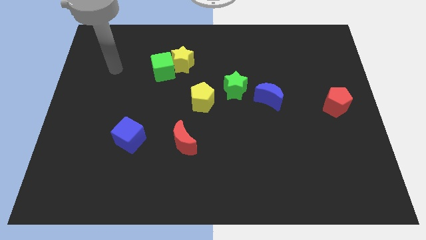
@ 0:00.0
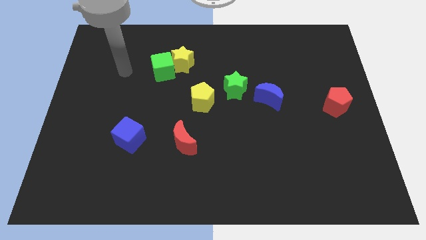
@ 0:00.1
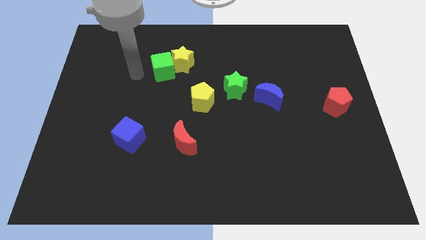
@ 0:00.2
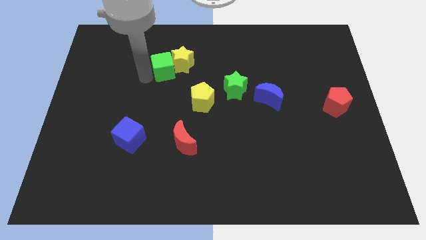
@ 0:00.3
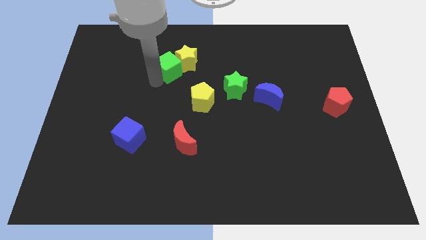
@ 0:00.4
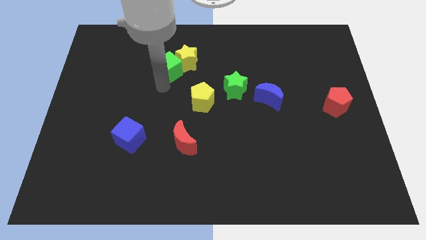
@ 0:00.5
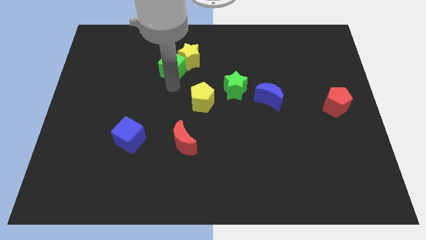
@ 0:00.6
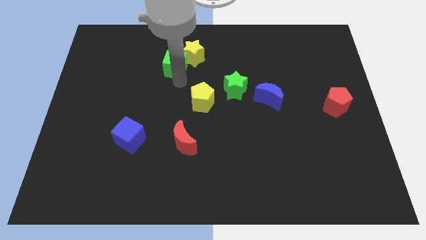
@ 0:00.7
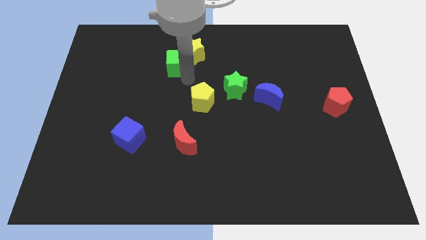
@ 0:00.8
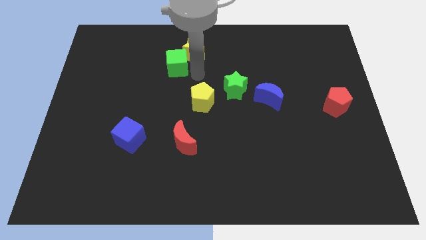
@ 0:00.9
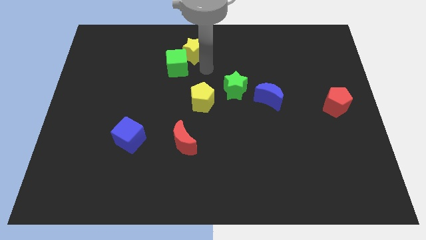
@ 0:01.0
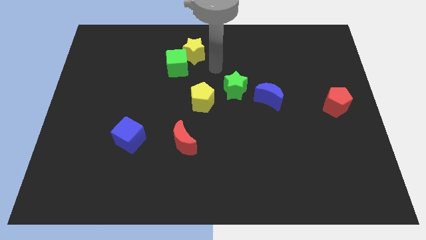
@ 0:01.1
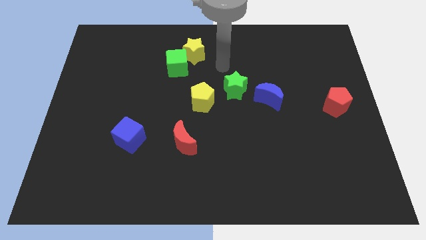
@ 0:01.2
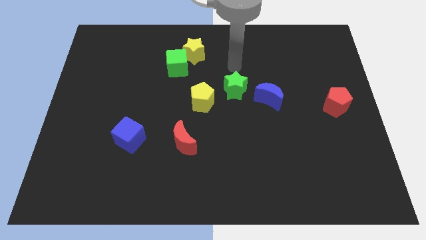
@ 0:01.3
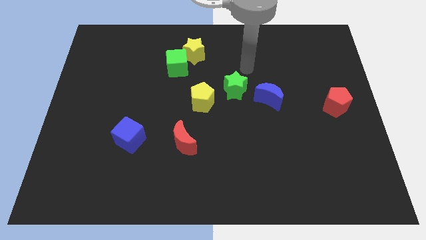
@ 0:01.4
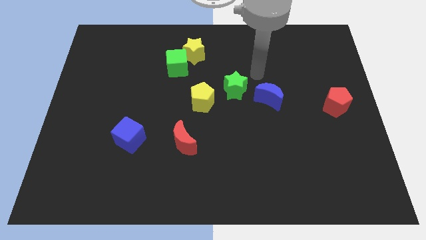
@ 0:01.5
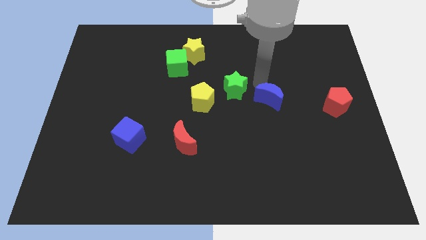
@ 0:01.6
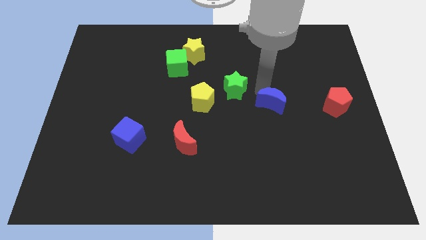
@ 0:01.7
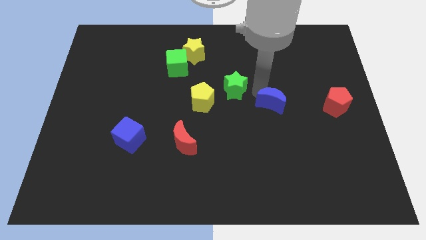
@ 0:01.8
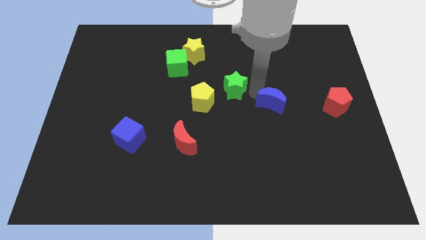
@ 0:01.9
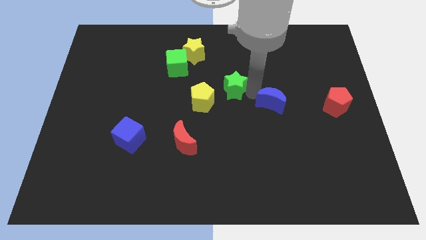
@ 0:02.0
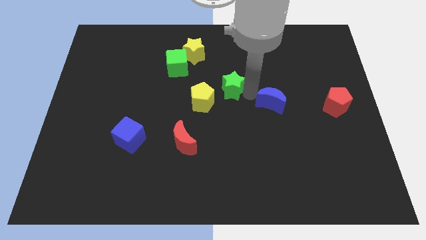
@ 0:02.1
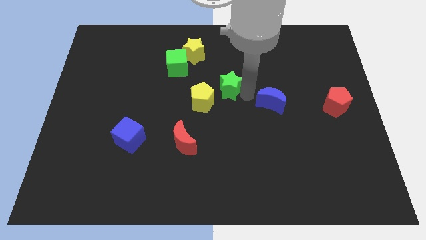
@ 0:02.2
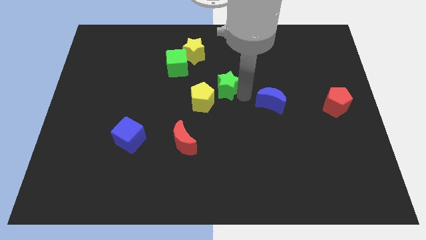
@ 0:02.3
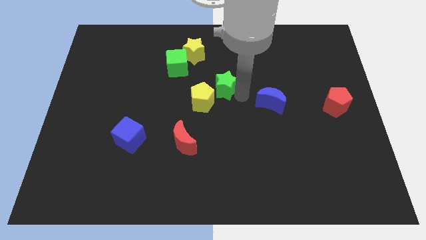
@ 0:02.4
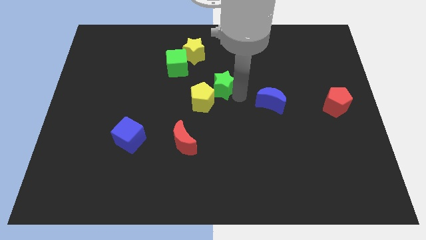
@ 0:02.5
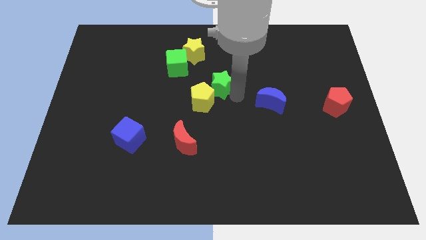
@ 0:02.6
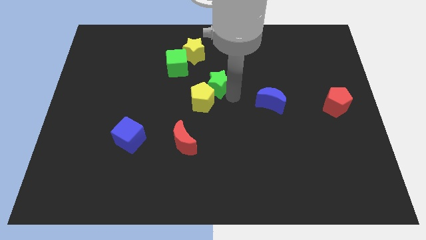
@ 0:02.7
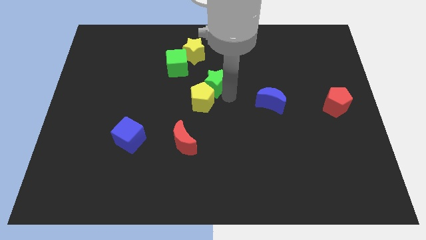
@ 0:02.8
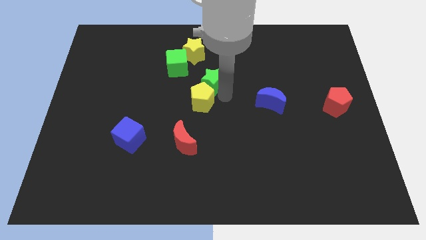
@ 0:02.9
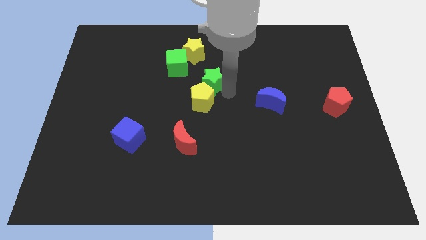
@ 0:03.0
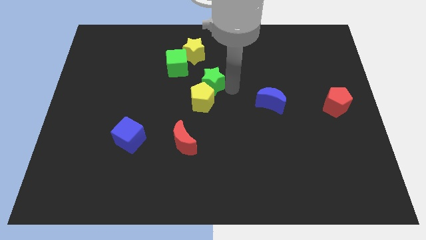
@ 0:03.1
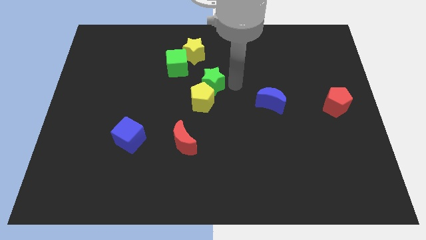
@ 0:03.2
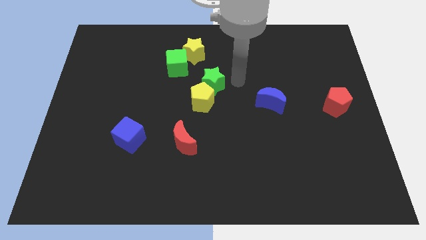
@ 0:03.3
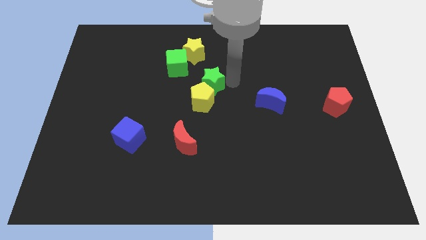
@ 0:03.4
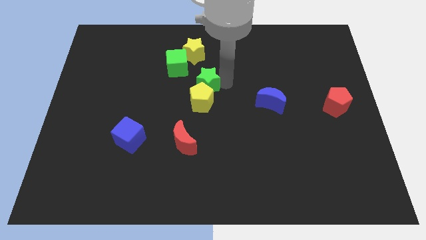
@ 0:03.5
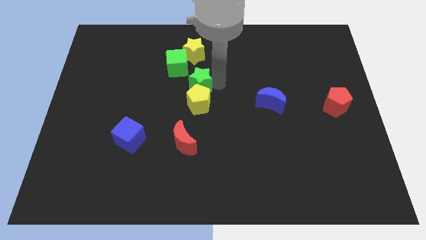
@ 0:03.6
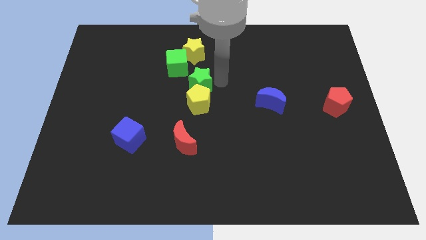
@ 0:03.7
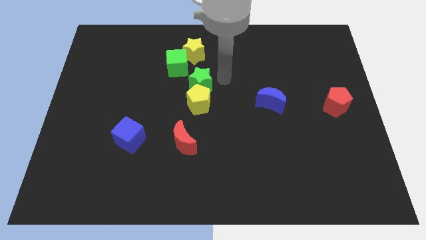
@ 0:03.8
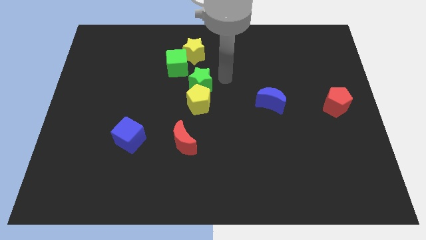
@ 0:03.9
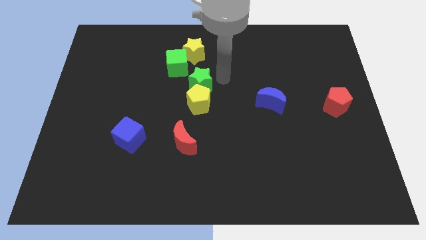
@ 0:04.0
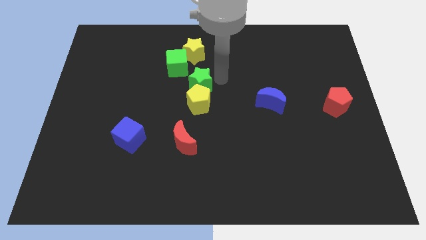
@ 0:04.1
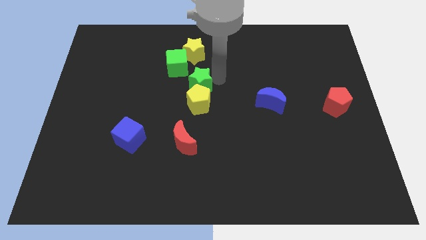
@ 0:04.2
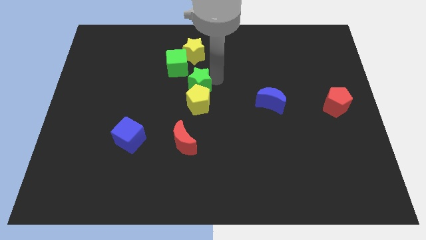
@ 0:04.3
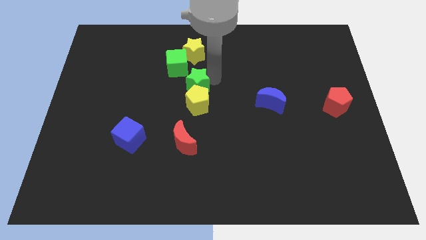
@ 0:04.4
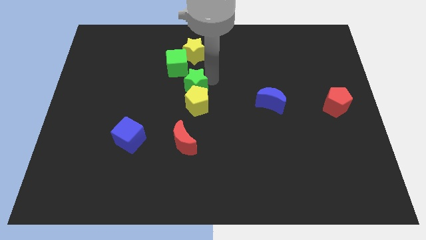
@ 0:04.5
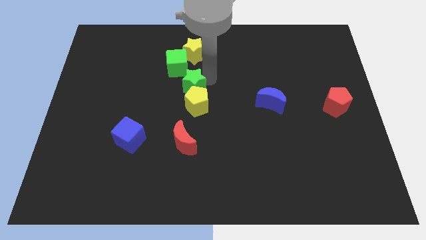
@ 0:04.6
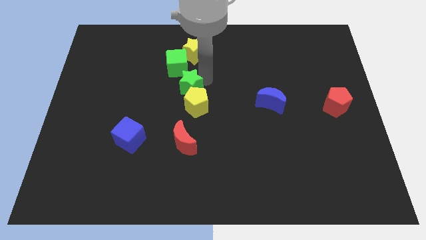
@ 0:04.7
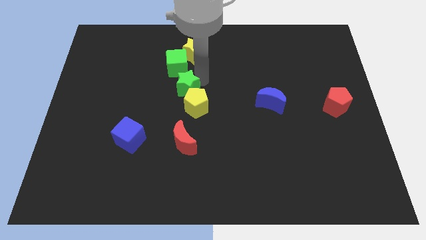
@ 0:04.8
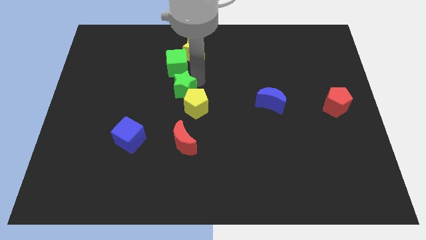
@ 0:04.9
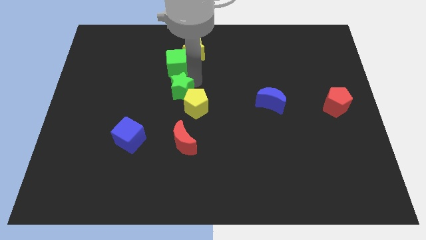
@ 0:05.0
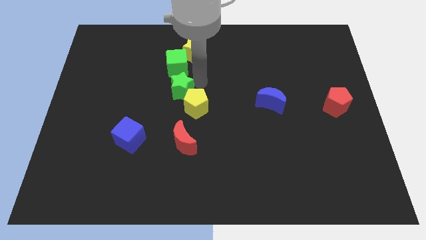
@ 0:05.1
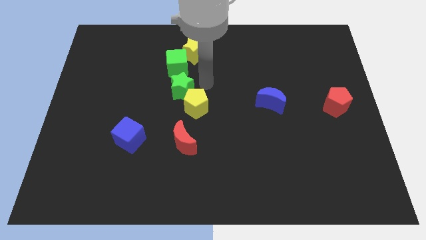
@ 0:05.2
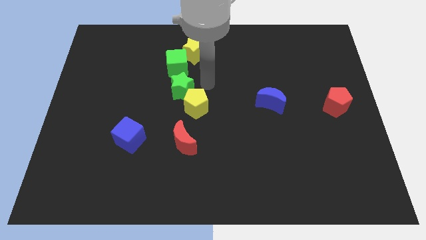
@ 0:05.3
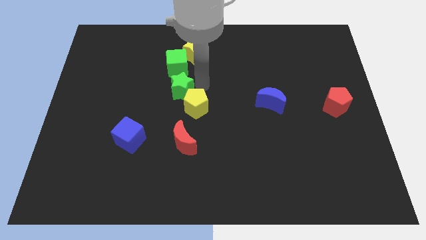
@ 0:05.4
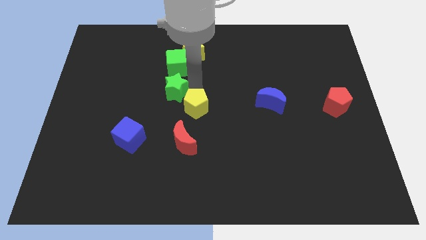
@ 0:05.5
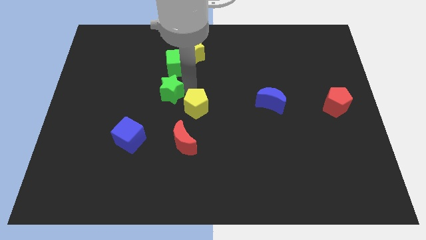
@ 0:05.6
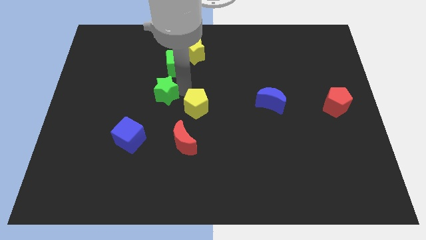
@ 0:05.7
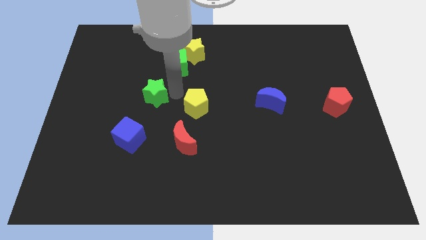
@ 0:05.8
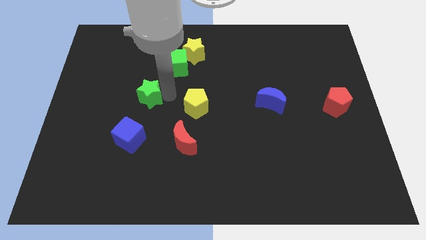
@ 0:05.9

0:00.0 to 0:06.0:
move the green star to the left

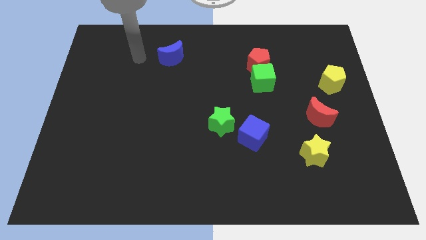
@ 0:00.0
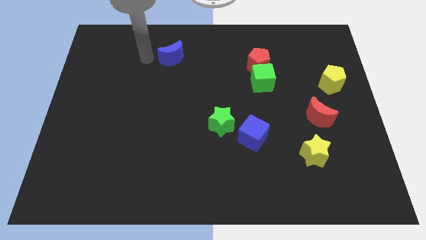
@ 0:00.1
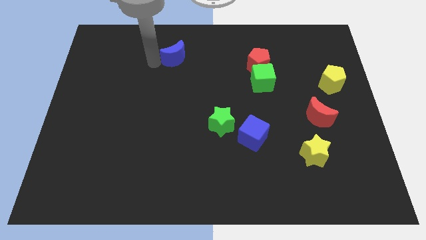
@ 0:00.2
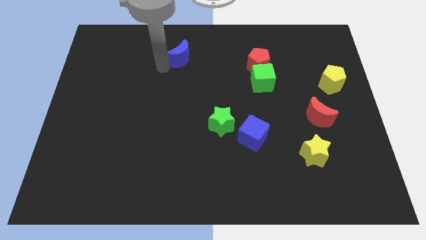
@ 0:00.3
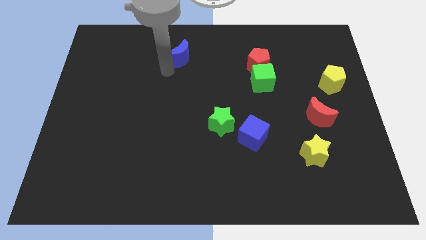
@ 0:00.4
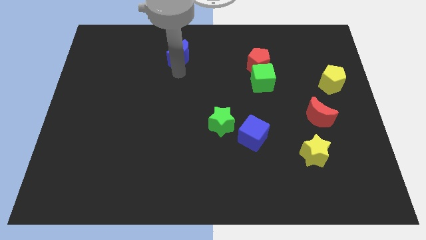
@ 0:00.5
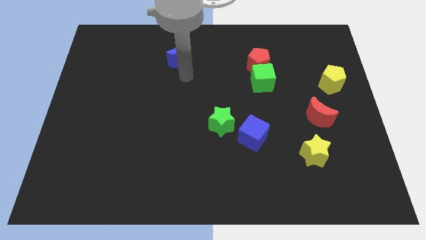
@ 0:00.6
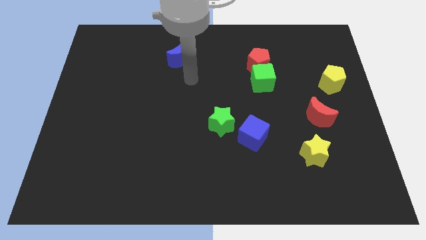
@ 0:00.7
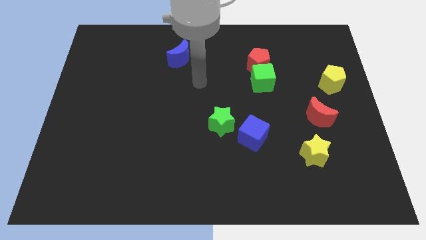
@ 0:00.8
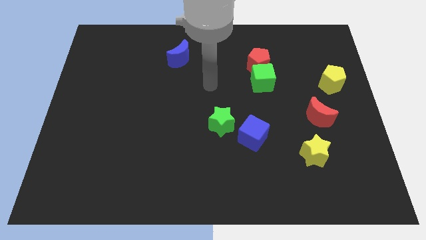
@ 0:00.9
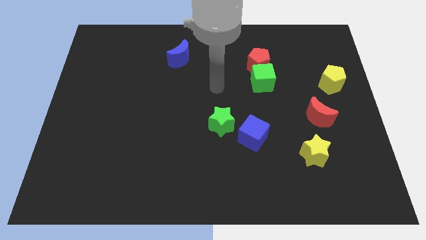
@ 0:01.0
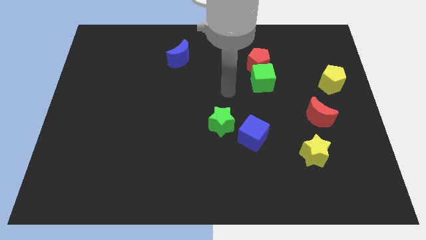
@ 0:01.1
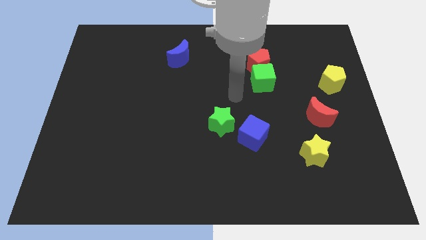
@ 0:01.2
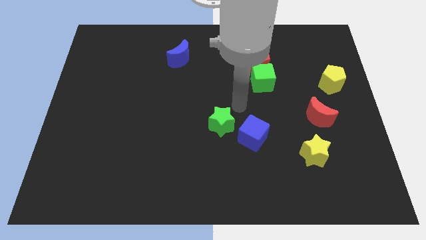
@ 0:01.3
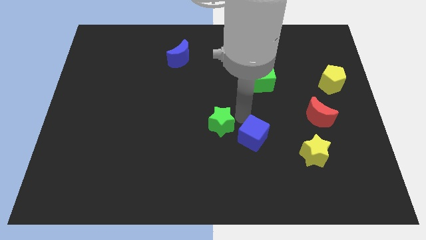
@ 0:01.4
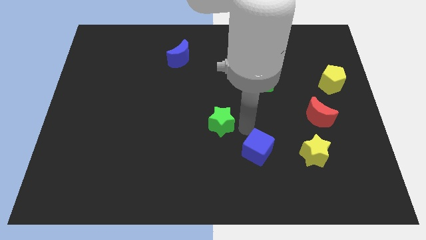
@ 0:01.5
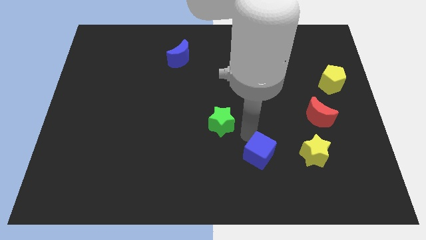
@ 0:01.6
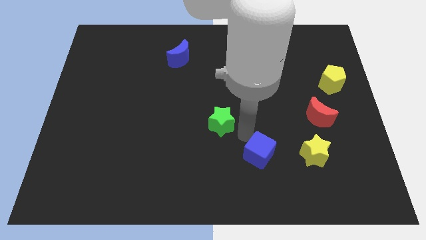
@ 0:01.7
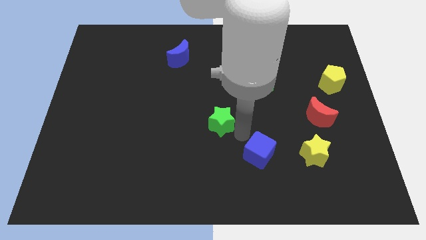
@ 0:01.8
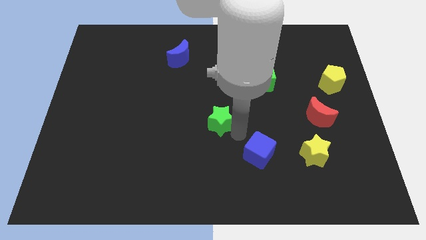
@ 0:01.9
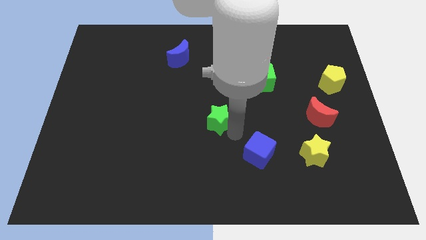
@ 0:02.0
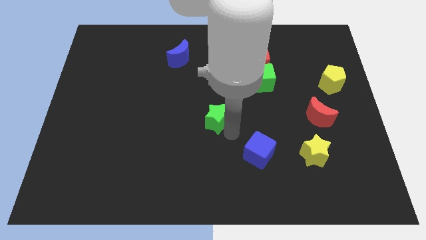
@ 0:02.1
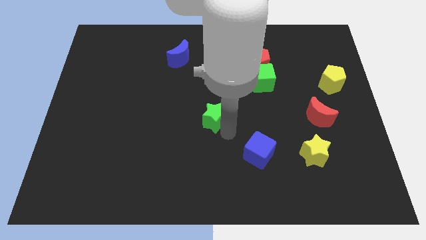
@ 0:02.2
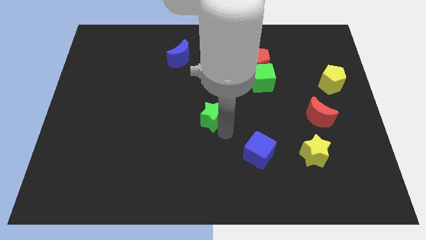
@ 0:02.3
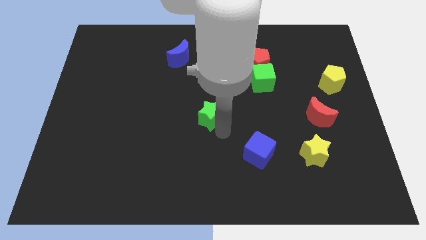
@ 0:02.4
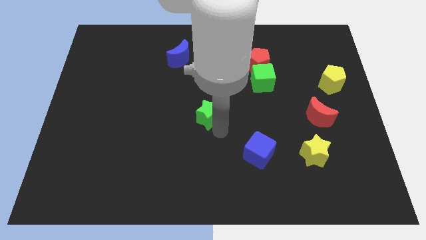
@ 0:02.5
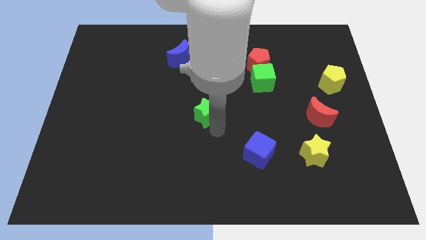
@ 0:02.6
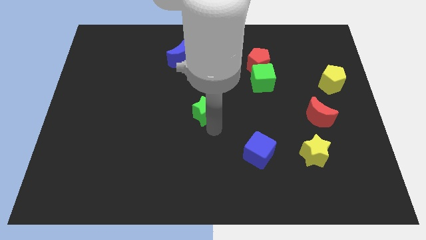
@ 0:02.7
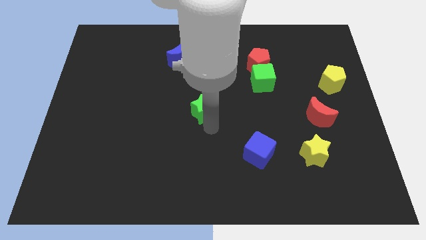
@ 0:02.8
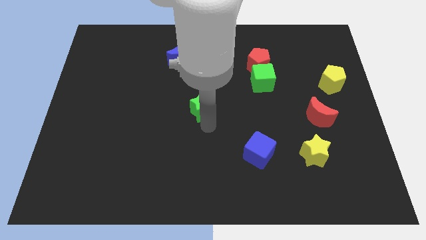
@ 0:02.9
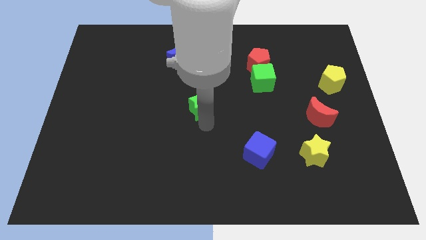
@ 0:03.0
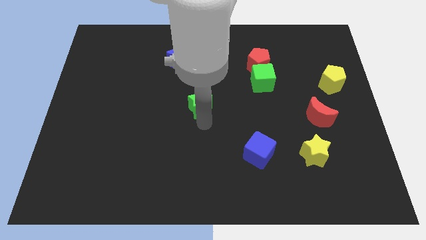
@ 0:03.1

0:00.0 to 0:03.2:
slightly push the green star up and left
